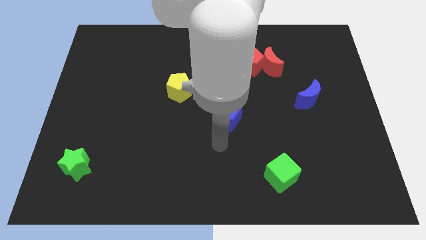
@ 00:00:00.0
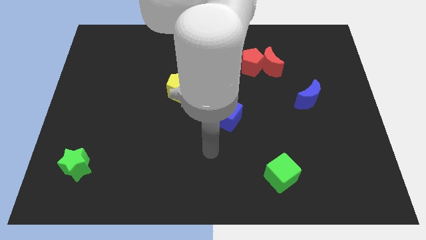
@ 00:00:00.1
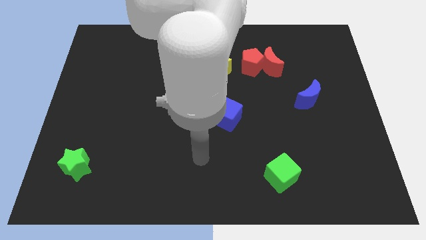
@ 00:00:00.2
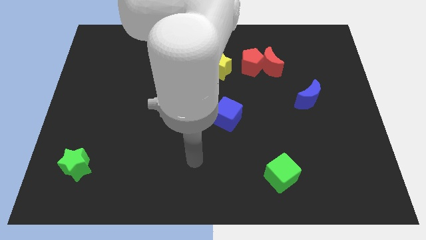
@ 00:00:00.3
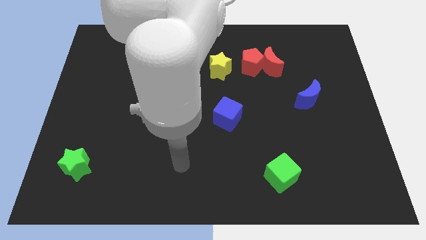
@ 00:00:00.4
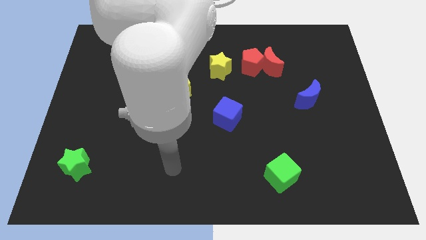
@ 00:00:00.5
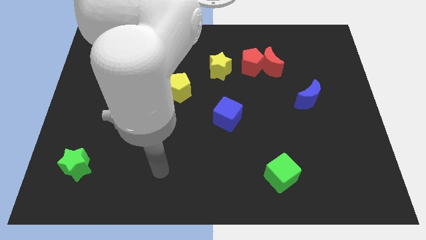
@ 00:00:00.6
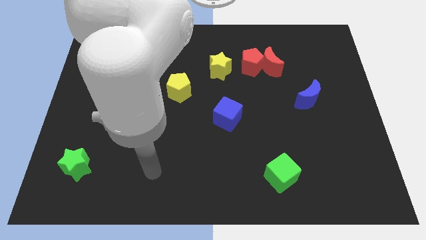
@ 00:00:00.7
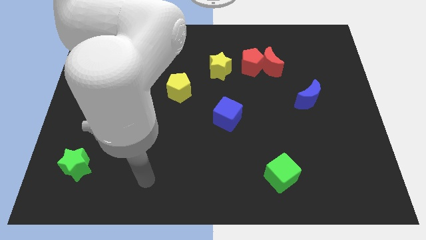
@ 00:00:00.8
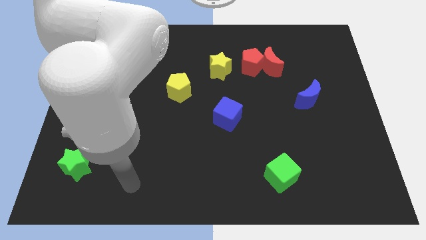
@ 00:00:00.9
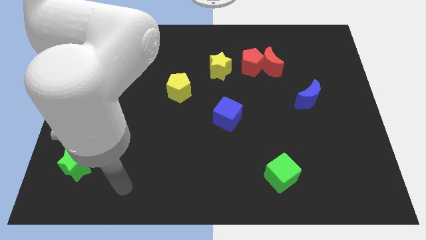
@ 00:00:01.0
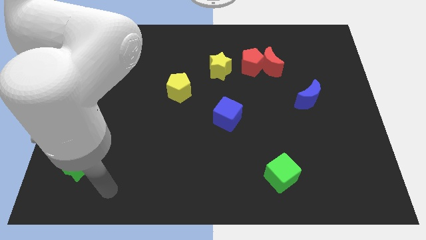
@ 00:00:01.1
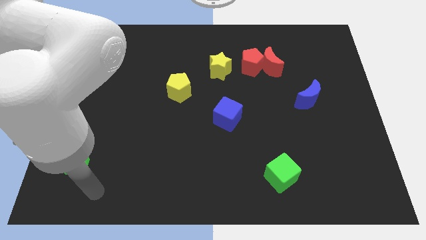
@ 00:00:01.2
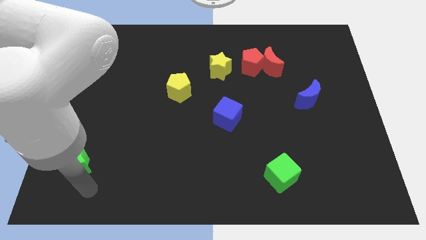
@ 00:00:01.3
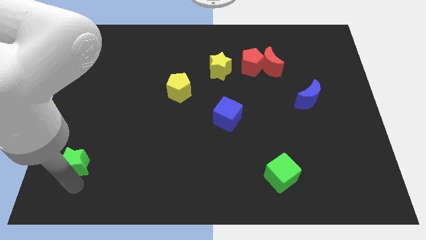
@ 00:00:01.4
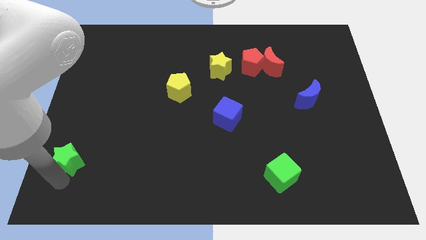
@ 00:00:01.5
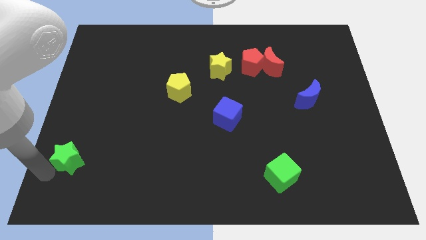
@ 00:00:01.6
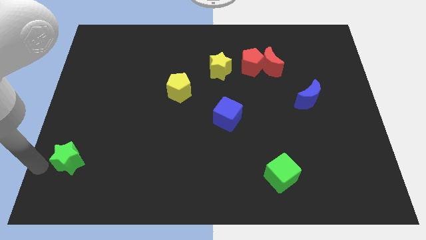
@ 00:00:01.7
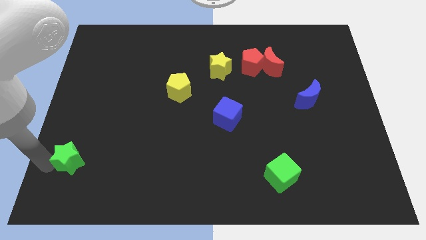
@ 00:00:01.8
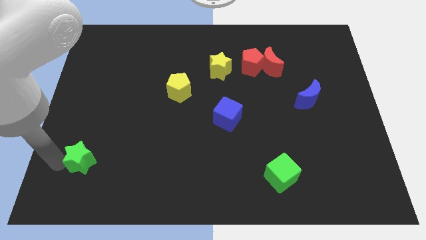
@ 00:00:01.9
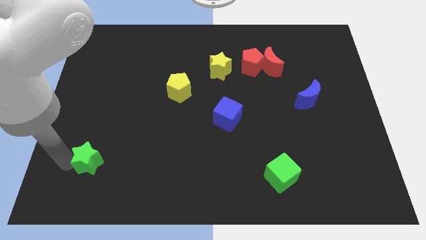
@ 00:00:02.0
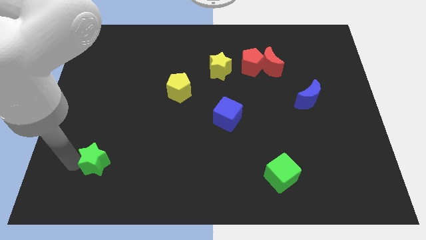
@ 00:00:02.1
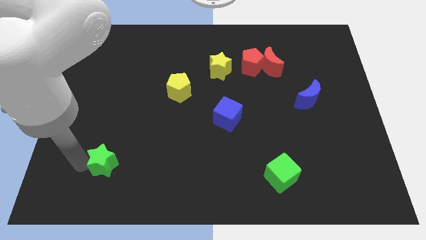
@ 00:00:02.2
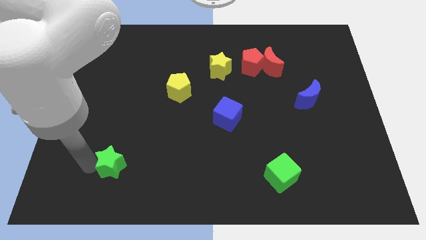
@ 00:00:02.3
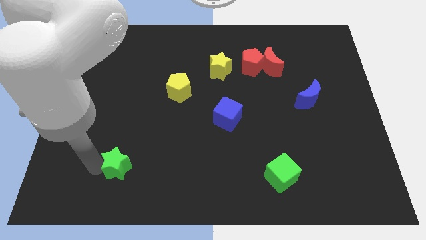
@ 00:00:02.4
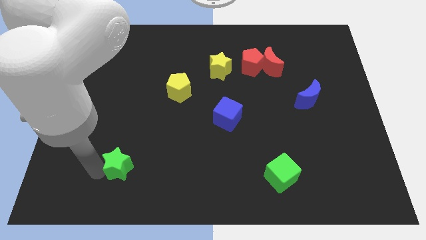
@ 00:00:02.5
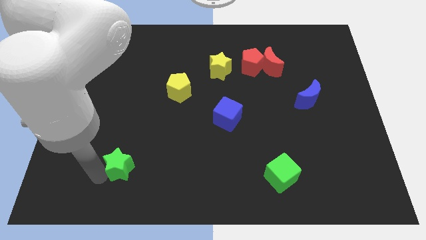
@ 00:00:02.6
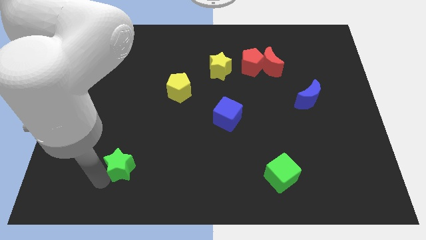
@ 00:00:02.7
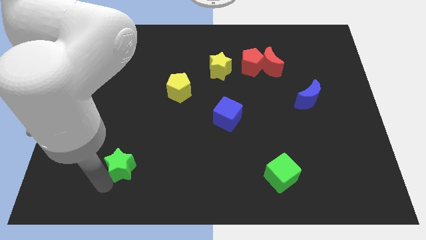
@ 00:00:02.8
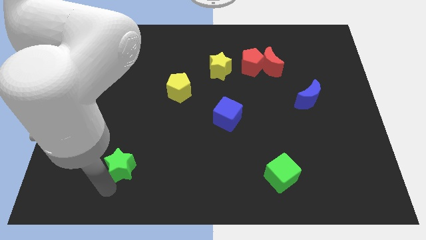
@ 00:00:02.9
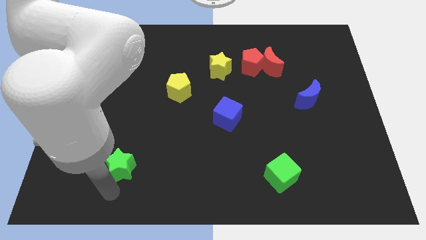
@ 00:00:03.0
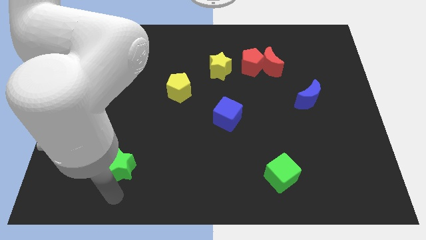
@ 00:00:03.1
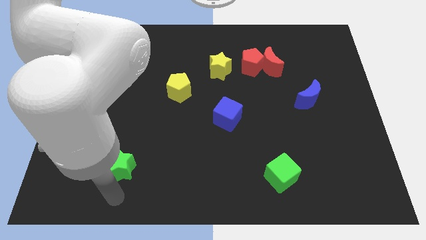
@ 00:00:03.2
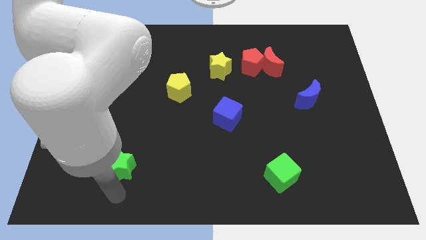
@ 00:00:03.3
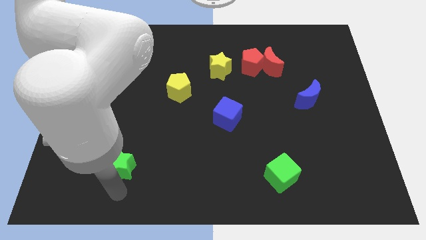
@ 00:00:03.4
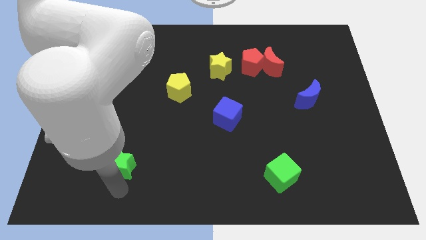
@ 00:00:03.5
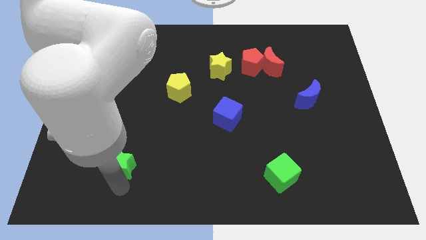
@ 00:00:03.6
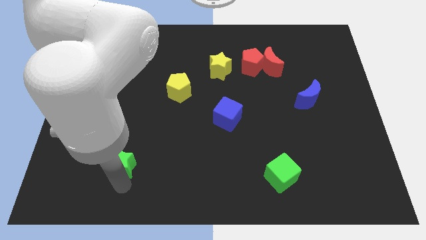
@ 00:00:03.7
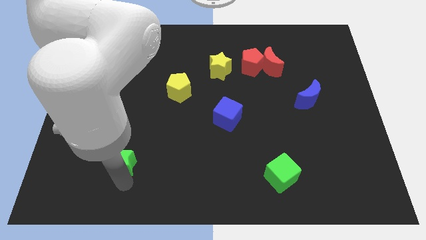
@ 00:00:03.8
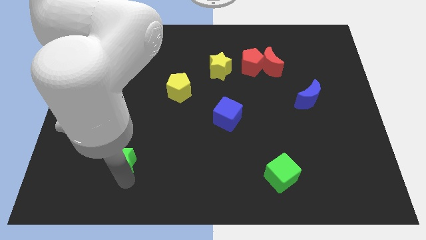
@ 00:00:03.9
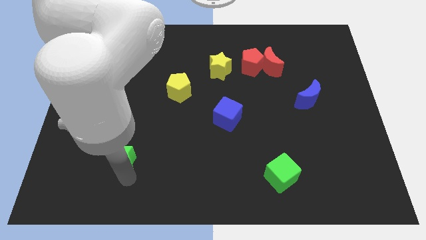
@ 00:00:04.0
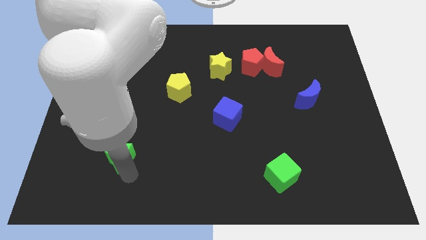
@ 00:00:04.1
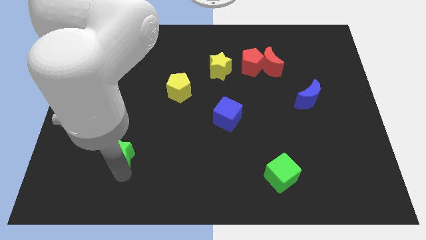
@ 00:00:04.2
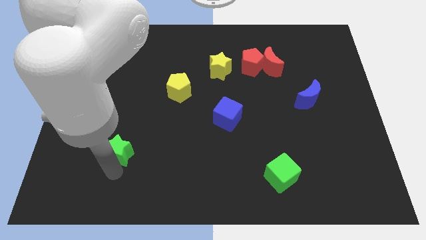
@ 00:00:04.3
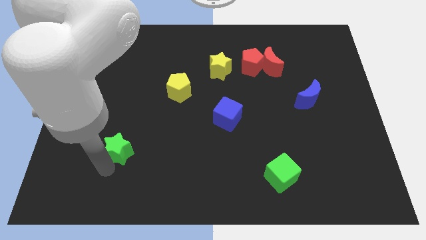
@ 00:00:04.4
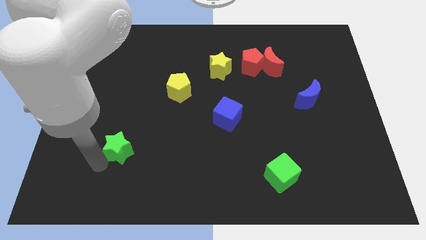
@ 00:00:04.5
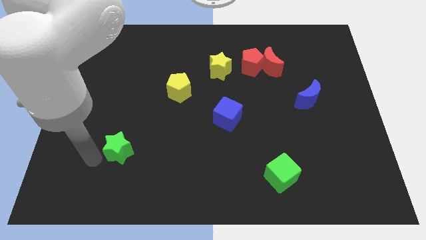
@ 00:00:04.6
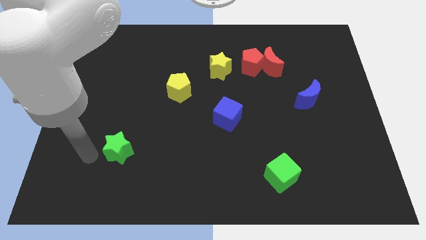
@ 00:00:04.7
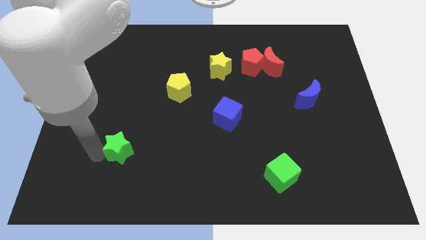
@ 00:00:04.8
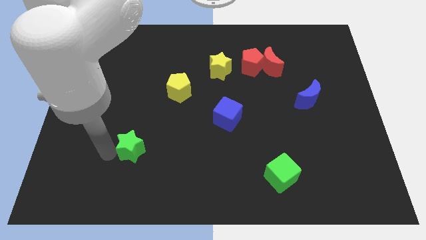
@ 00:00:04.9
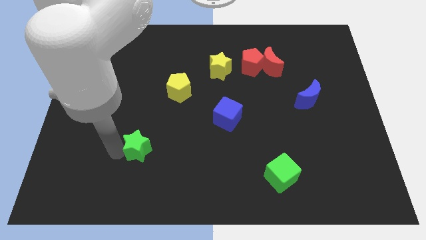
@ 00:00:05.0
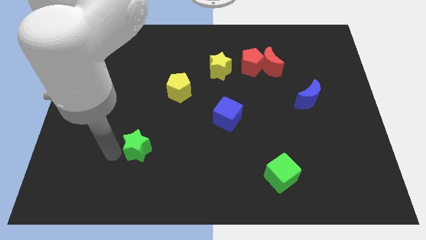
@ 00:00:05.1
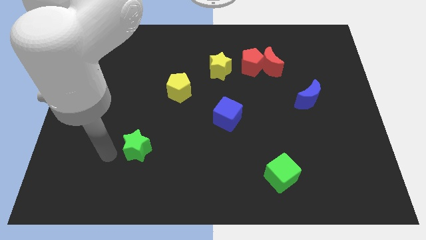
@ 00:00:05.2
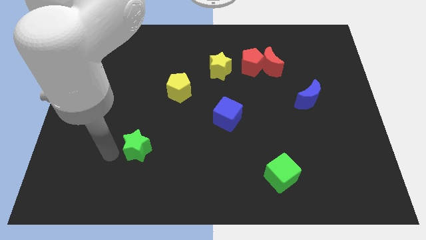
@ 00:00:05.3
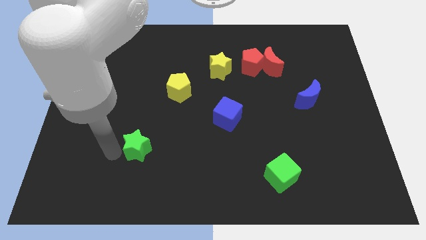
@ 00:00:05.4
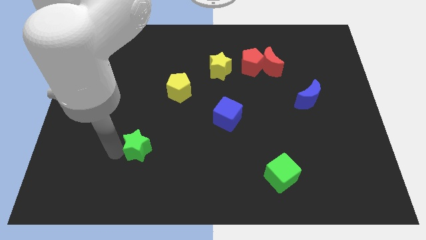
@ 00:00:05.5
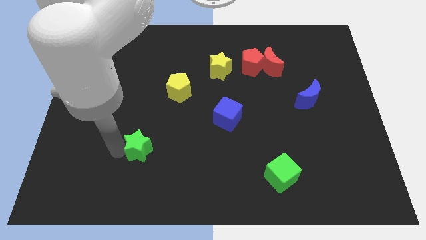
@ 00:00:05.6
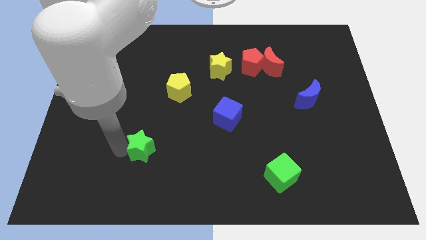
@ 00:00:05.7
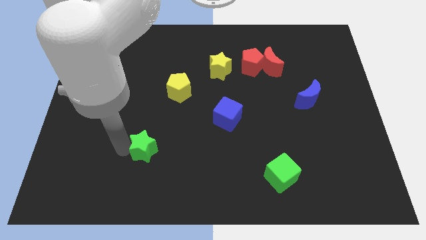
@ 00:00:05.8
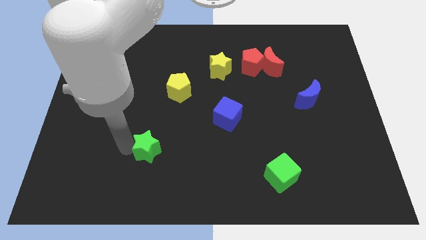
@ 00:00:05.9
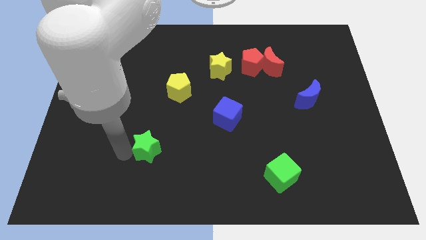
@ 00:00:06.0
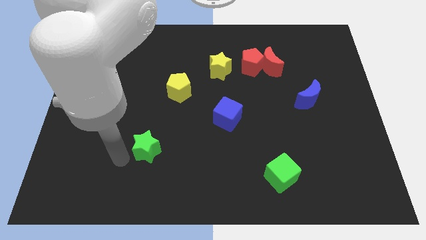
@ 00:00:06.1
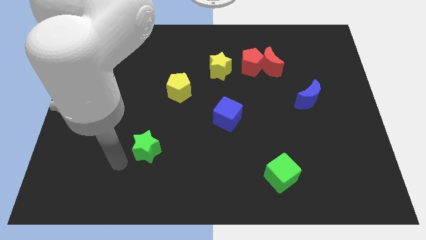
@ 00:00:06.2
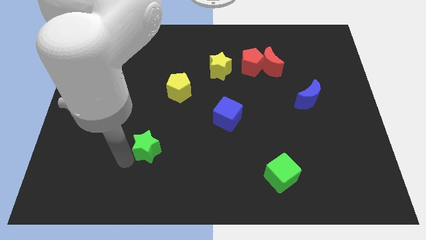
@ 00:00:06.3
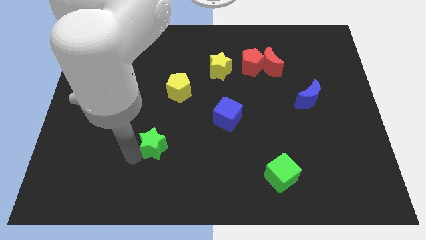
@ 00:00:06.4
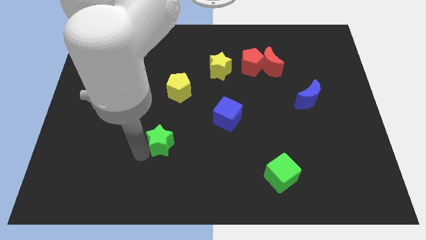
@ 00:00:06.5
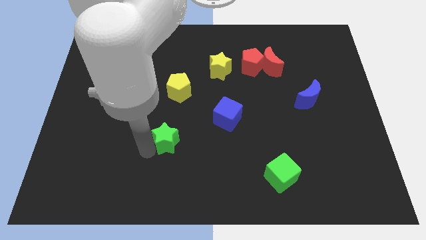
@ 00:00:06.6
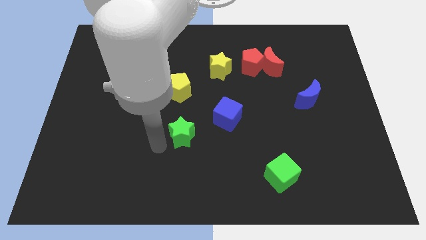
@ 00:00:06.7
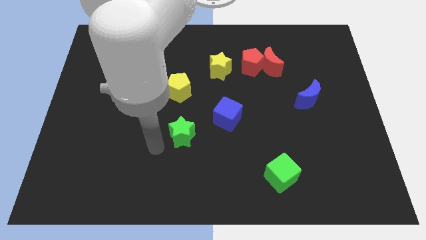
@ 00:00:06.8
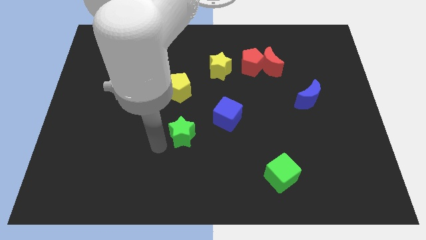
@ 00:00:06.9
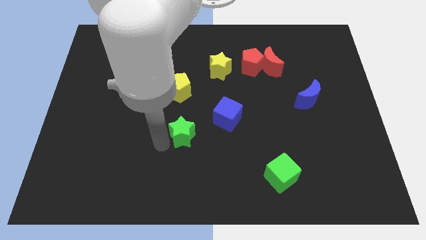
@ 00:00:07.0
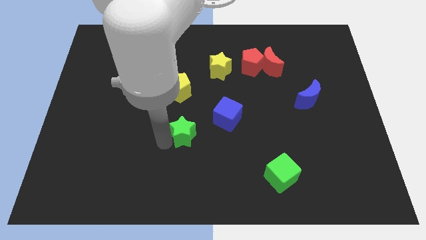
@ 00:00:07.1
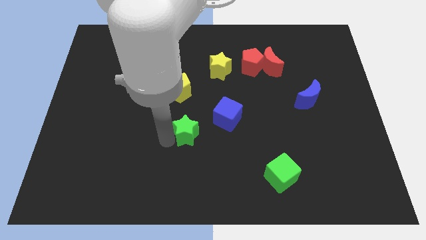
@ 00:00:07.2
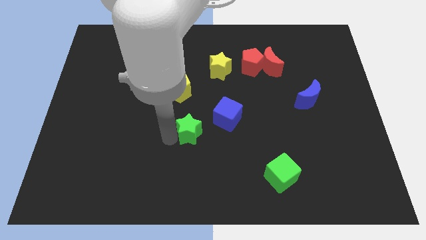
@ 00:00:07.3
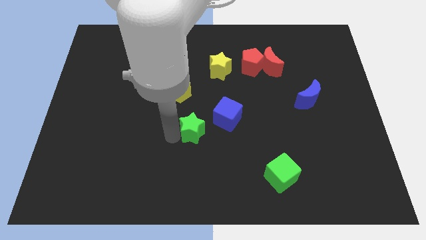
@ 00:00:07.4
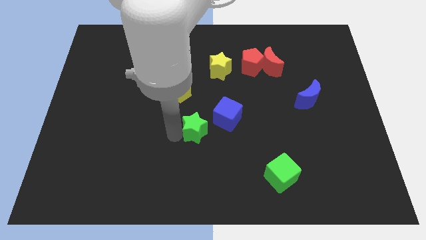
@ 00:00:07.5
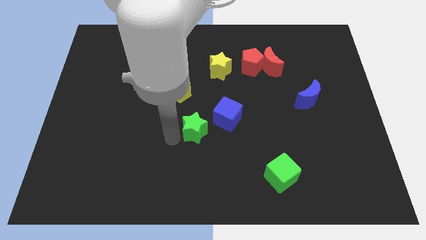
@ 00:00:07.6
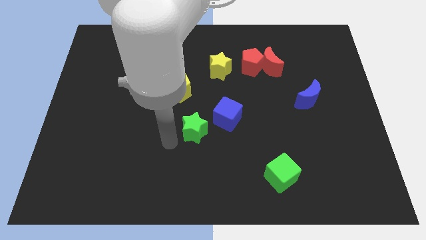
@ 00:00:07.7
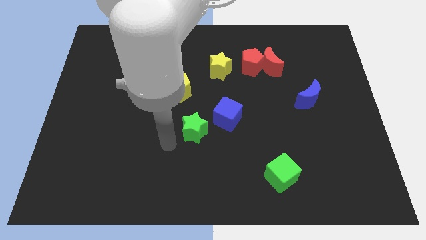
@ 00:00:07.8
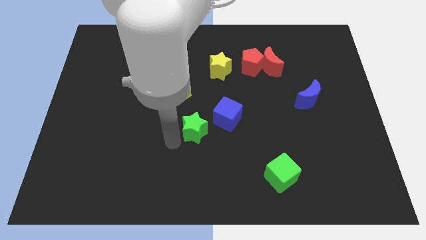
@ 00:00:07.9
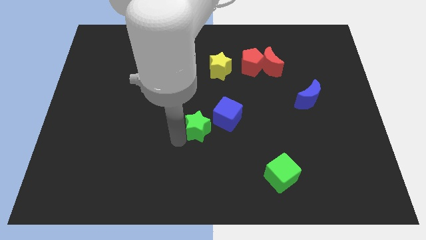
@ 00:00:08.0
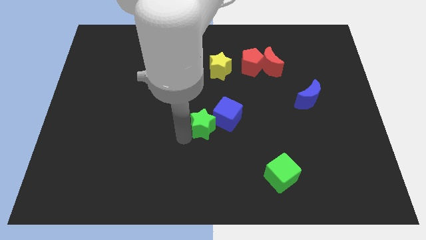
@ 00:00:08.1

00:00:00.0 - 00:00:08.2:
push the green star to the blue cube
